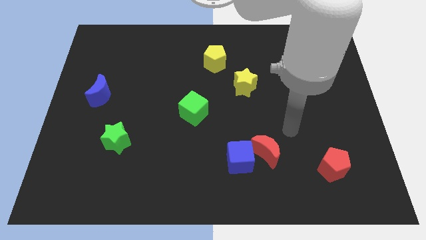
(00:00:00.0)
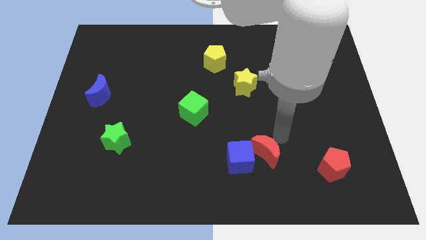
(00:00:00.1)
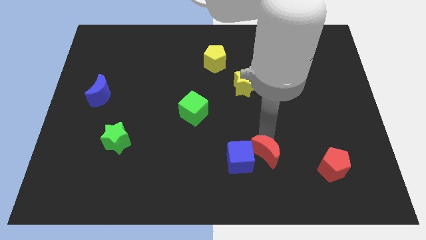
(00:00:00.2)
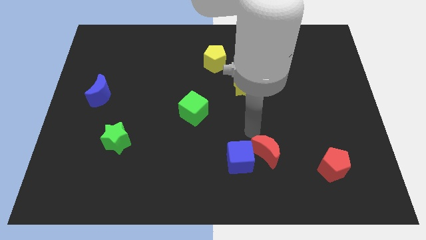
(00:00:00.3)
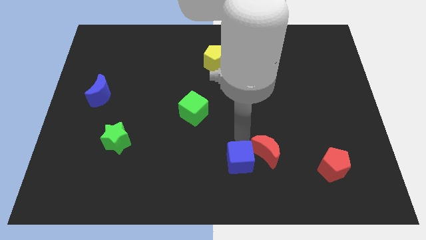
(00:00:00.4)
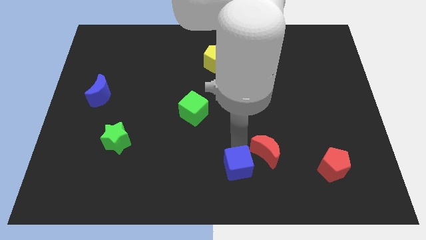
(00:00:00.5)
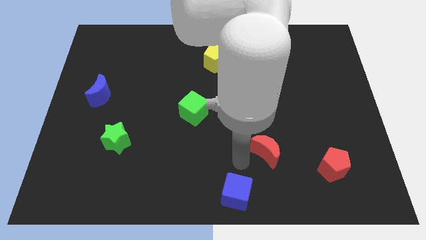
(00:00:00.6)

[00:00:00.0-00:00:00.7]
separate the red moon from the blue cube

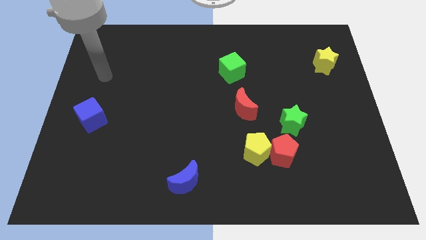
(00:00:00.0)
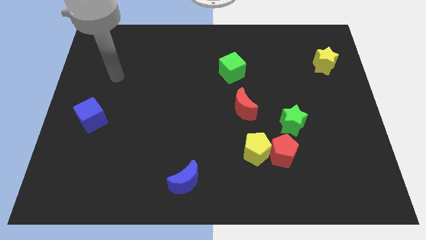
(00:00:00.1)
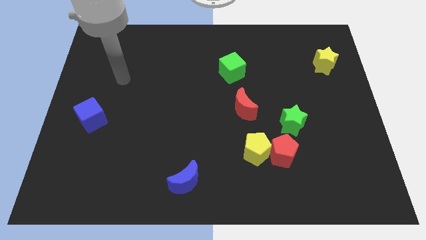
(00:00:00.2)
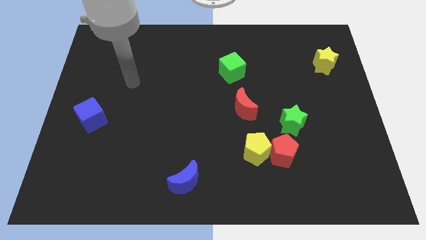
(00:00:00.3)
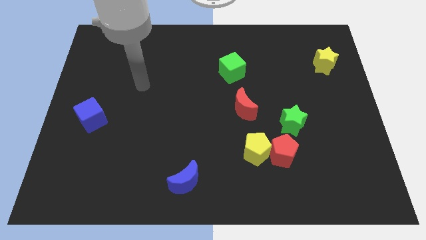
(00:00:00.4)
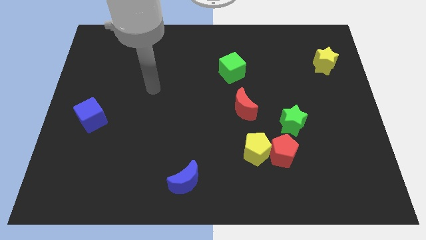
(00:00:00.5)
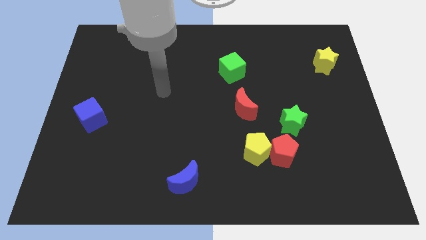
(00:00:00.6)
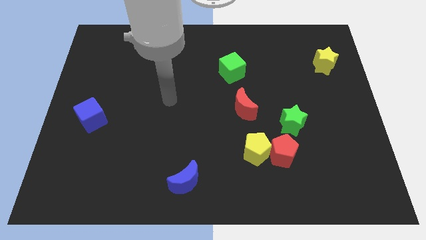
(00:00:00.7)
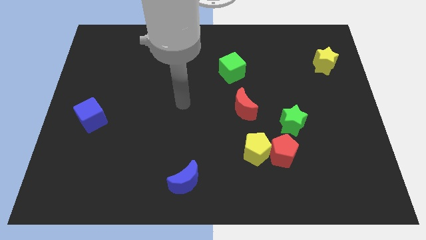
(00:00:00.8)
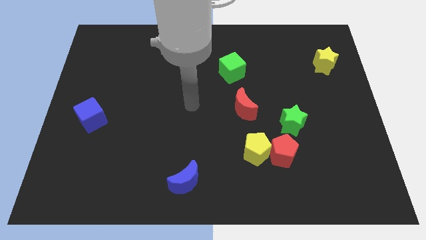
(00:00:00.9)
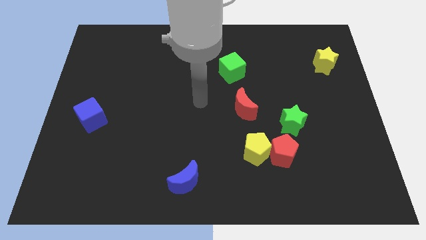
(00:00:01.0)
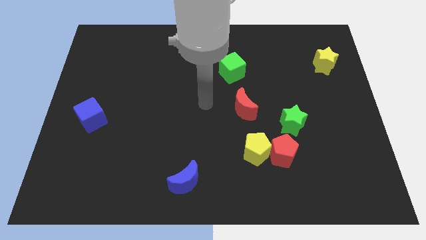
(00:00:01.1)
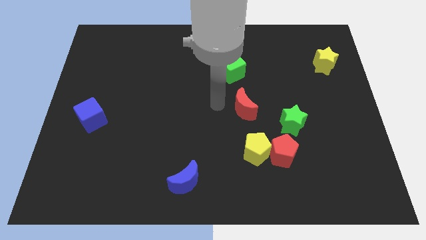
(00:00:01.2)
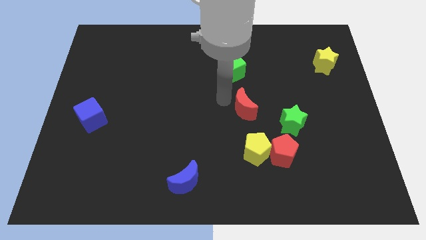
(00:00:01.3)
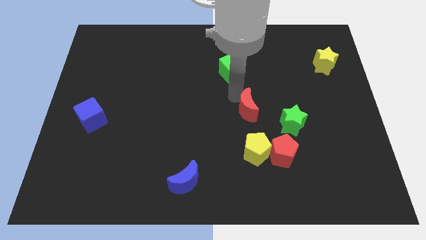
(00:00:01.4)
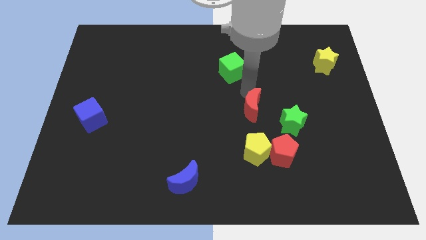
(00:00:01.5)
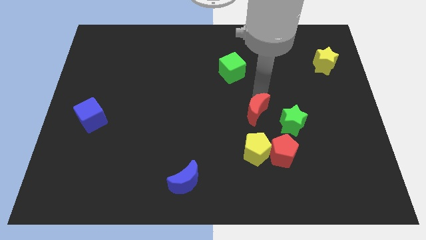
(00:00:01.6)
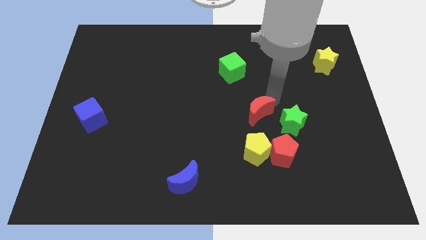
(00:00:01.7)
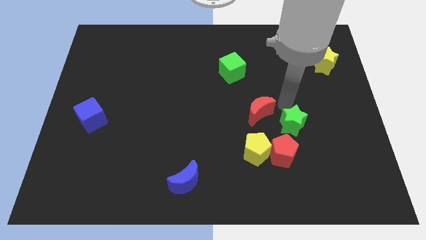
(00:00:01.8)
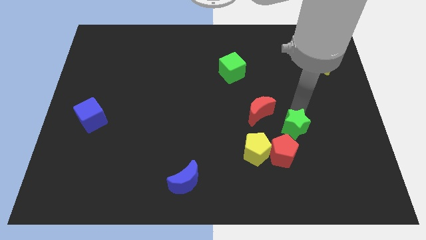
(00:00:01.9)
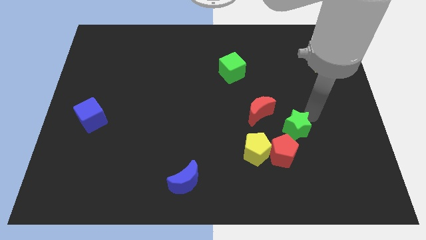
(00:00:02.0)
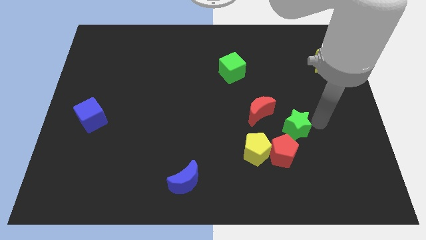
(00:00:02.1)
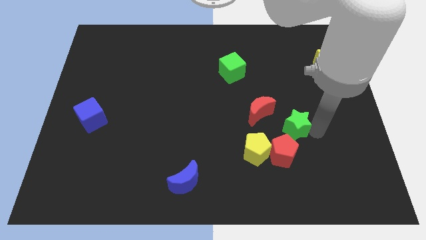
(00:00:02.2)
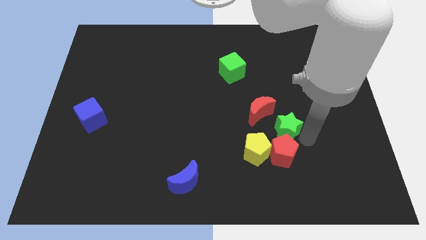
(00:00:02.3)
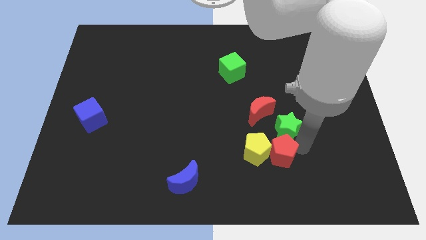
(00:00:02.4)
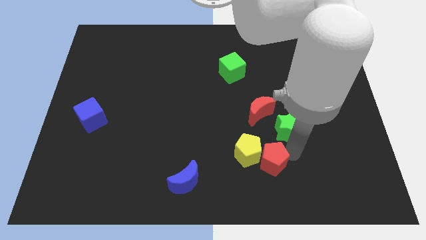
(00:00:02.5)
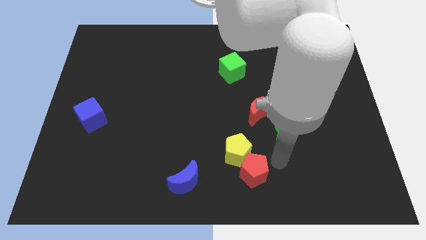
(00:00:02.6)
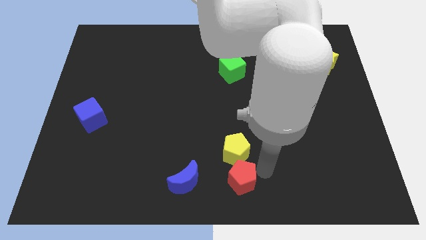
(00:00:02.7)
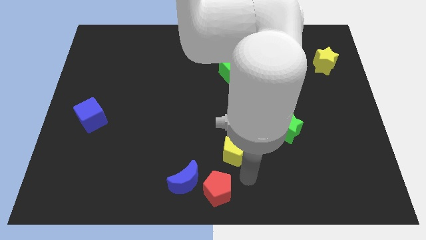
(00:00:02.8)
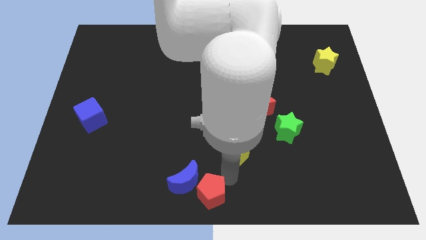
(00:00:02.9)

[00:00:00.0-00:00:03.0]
separate the yellow pentagon from the red pentagon

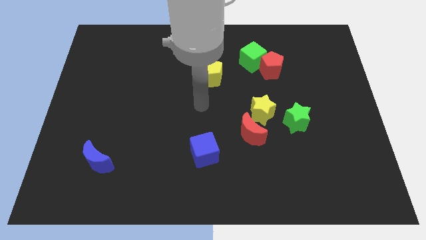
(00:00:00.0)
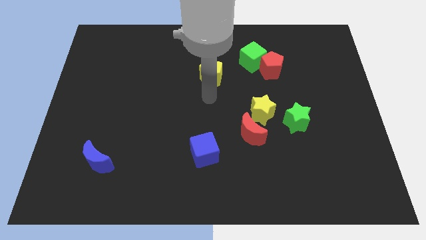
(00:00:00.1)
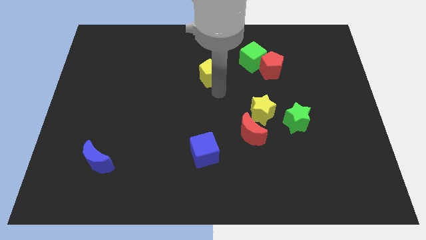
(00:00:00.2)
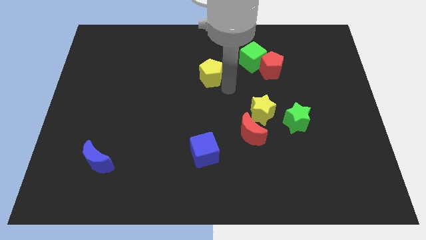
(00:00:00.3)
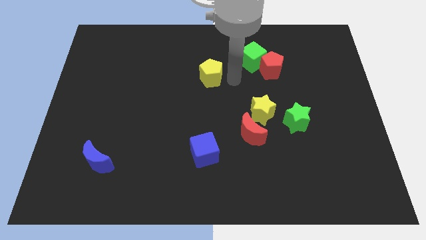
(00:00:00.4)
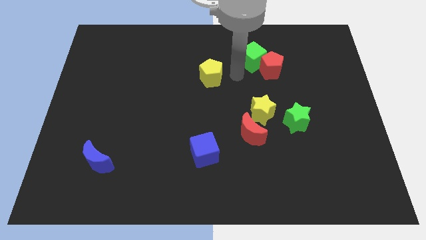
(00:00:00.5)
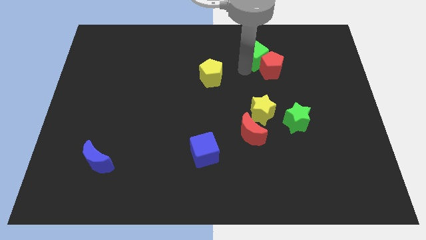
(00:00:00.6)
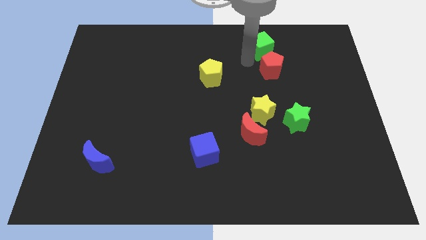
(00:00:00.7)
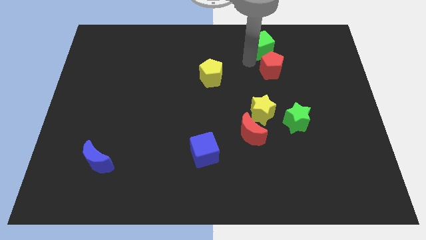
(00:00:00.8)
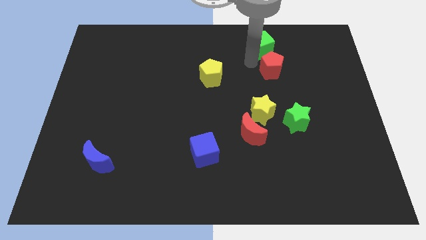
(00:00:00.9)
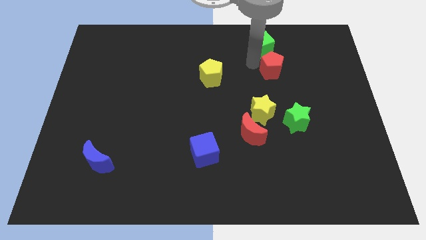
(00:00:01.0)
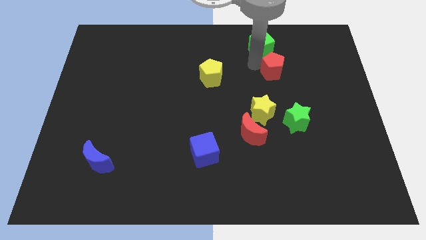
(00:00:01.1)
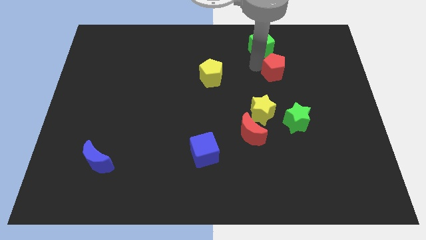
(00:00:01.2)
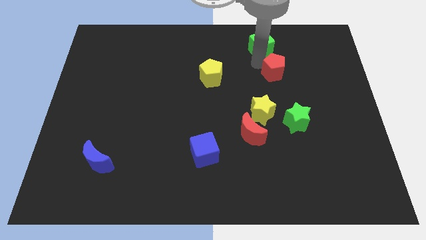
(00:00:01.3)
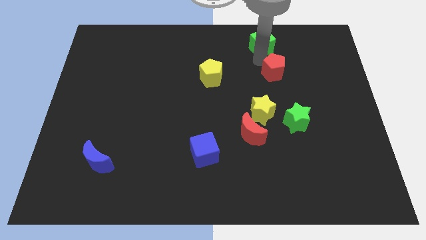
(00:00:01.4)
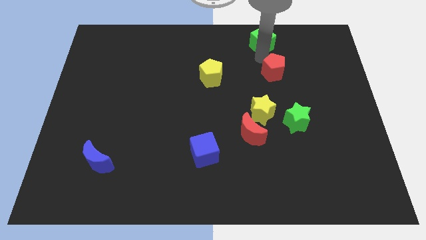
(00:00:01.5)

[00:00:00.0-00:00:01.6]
pull the red pentagon apart from the green cube

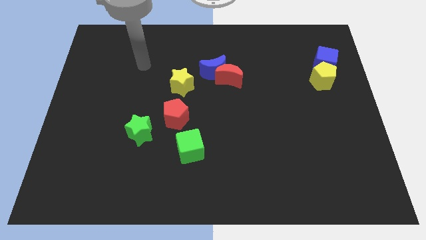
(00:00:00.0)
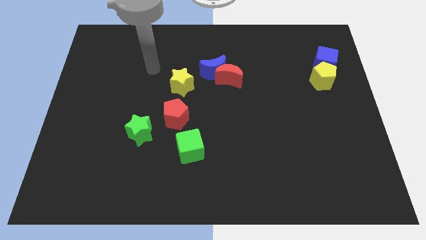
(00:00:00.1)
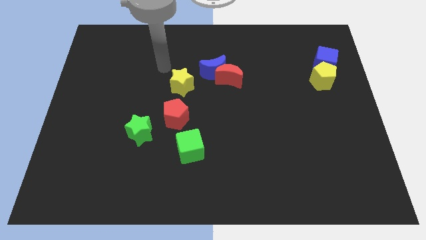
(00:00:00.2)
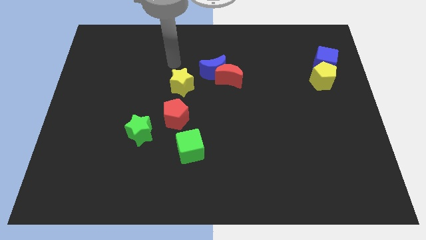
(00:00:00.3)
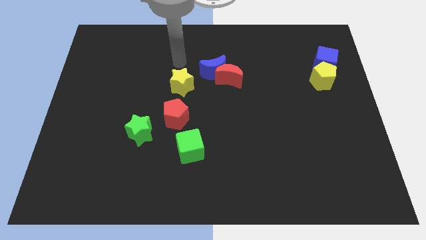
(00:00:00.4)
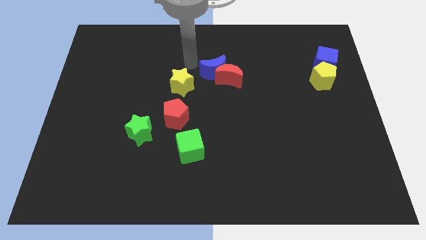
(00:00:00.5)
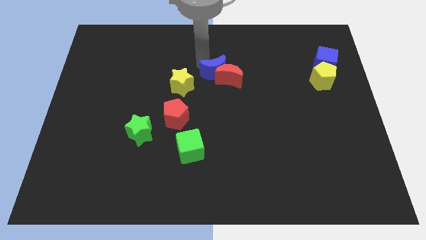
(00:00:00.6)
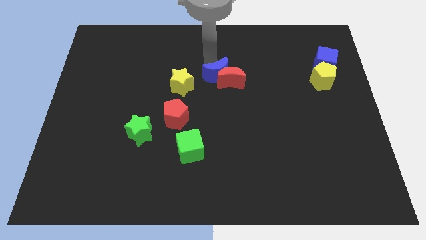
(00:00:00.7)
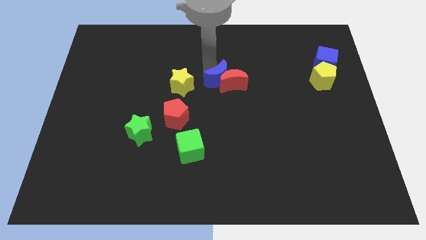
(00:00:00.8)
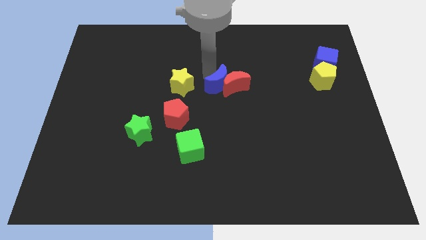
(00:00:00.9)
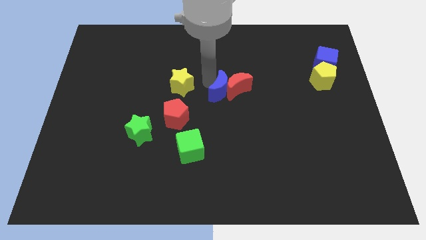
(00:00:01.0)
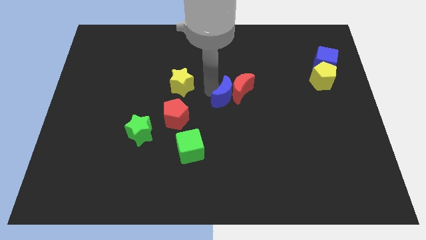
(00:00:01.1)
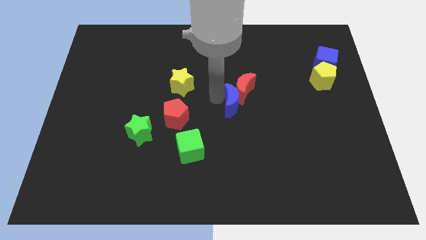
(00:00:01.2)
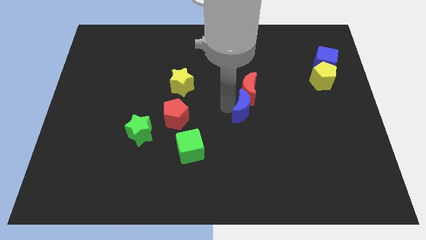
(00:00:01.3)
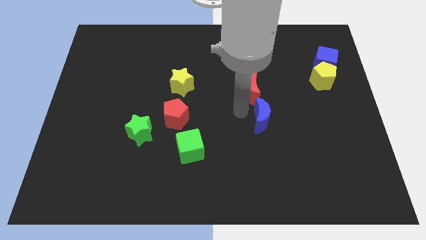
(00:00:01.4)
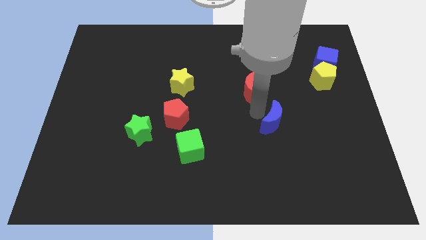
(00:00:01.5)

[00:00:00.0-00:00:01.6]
pull the red moon apart from the blue moon

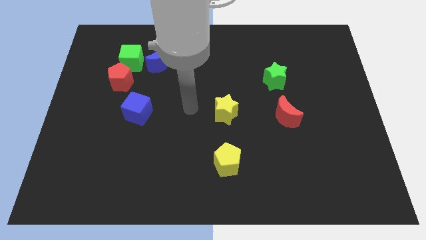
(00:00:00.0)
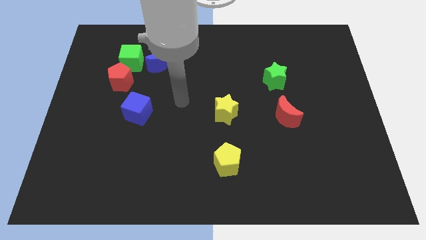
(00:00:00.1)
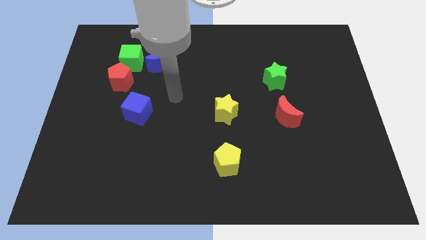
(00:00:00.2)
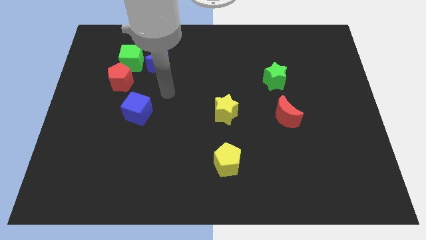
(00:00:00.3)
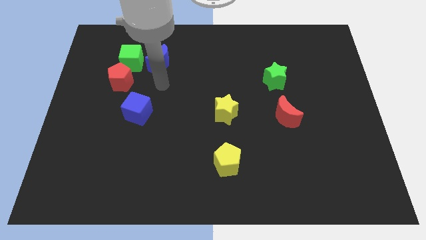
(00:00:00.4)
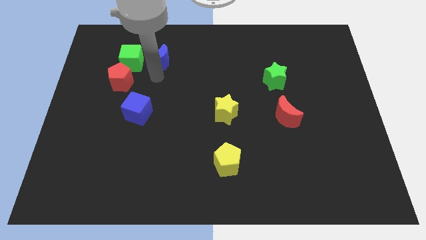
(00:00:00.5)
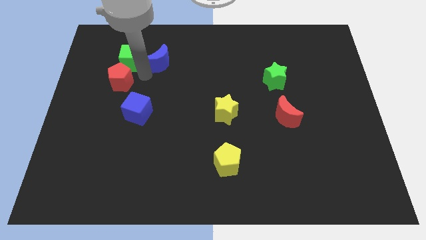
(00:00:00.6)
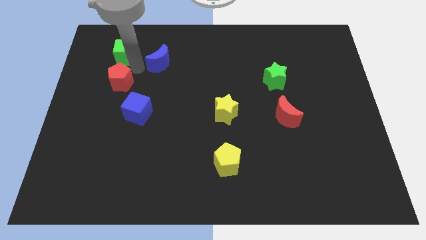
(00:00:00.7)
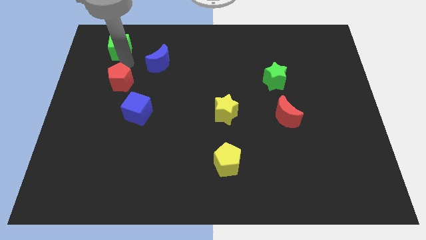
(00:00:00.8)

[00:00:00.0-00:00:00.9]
separate the red pentagon from the green cube

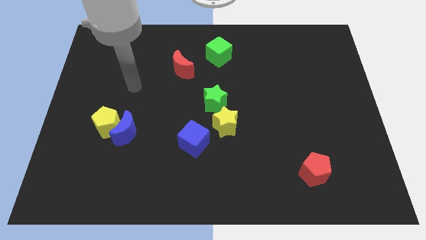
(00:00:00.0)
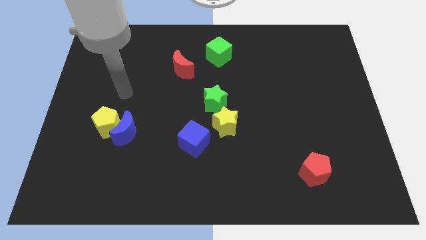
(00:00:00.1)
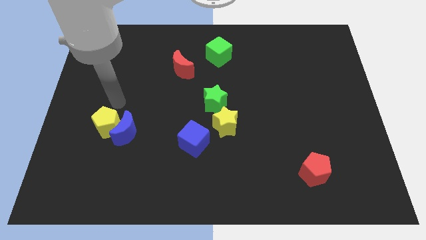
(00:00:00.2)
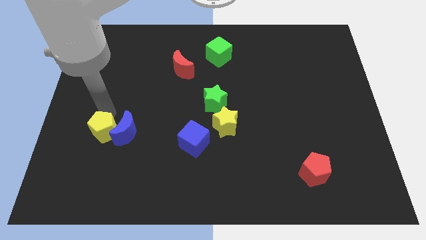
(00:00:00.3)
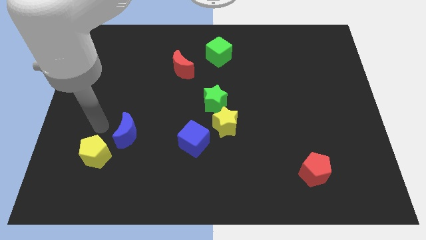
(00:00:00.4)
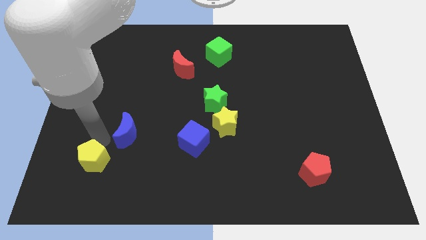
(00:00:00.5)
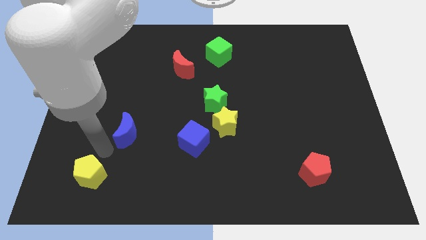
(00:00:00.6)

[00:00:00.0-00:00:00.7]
move the blue moon away from the yellow pentagon

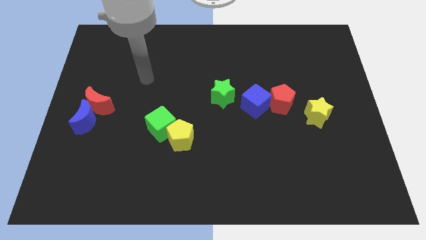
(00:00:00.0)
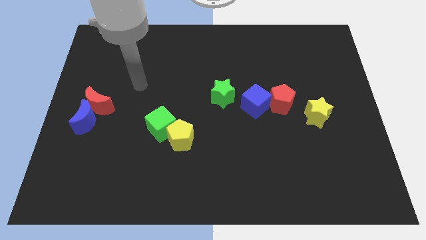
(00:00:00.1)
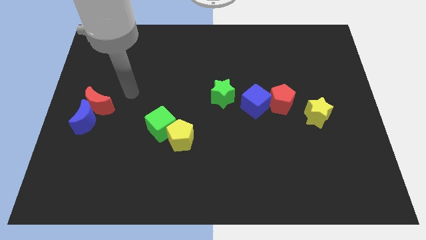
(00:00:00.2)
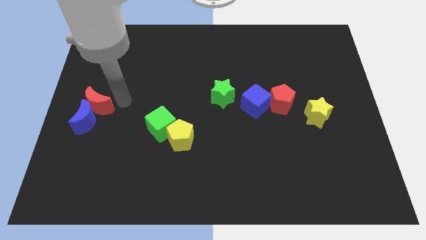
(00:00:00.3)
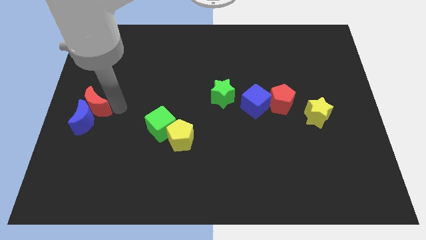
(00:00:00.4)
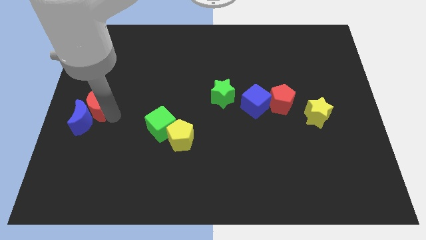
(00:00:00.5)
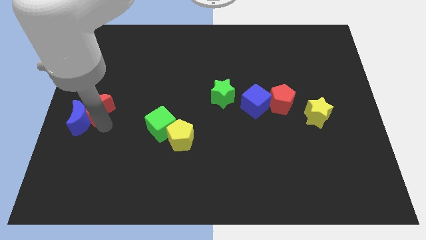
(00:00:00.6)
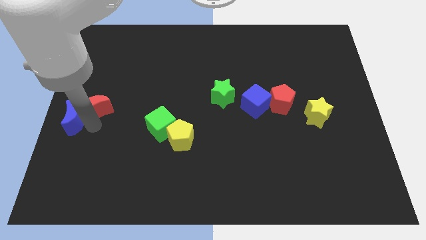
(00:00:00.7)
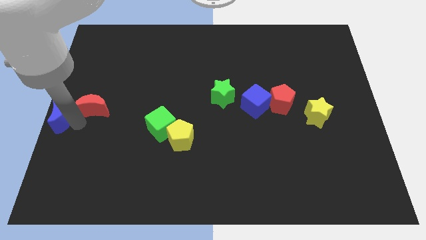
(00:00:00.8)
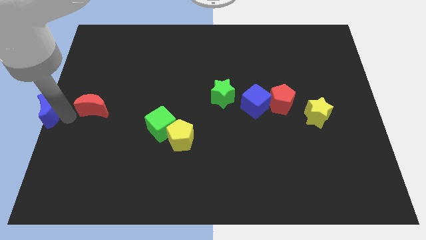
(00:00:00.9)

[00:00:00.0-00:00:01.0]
move the red moon away from the blue moon
